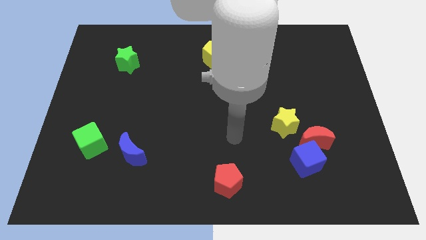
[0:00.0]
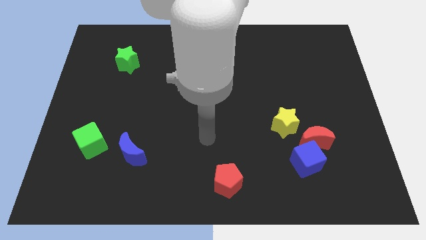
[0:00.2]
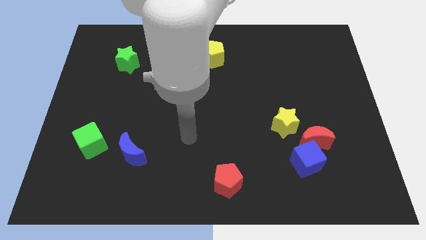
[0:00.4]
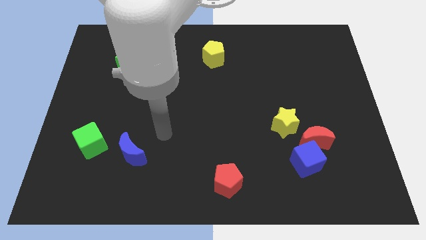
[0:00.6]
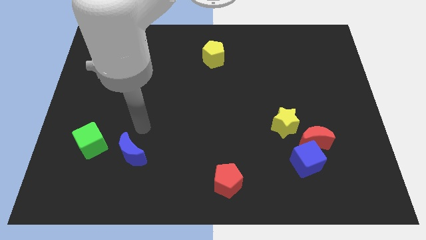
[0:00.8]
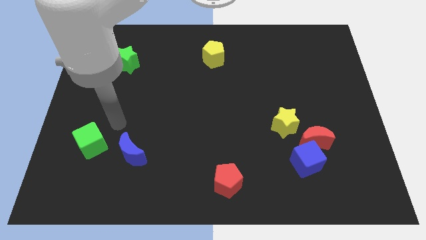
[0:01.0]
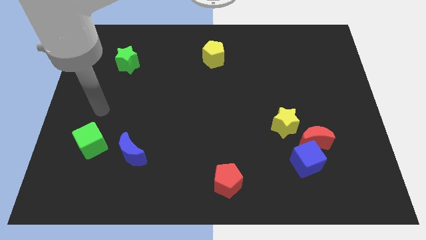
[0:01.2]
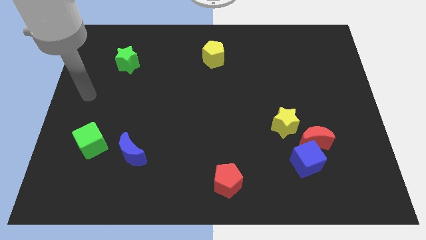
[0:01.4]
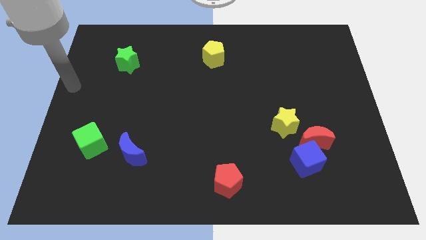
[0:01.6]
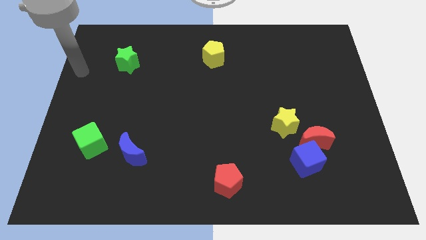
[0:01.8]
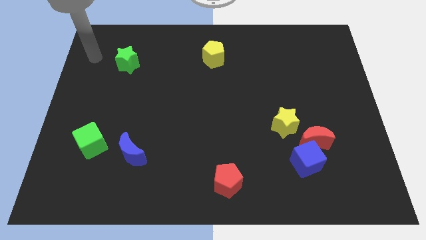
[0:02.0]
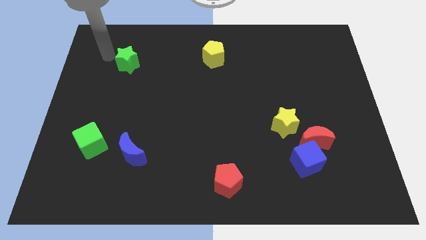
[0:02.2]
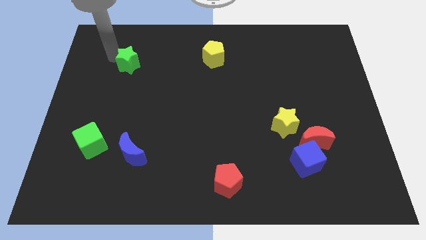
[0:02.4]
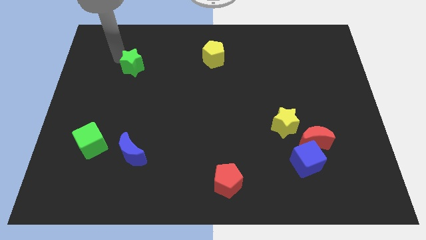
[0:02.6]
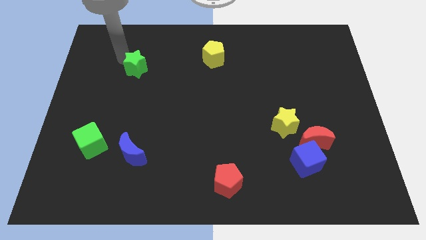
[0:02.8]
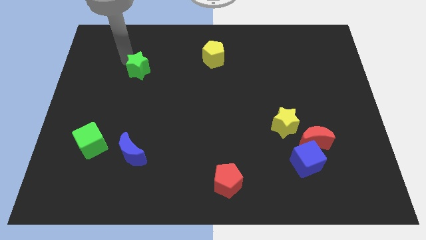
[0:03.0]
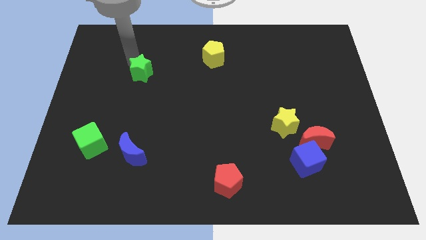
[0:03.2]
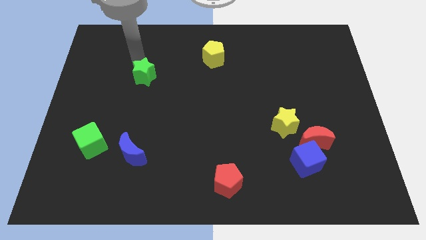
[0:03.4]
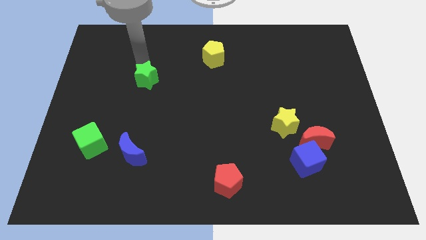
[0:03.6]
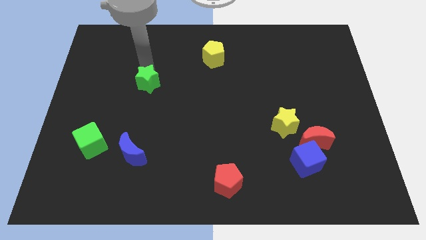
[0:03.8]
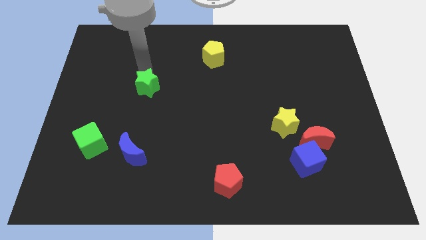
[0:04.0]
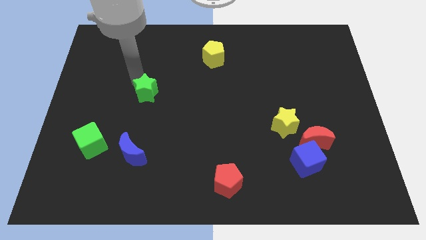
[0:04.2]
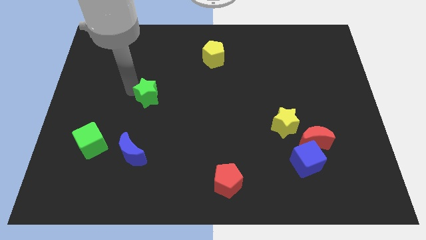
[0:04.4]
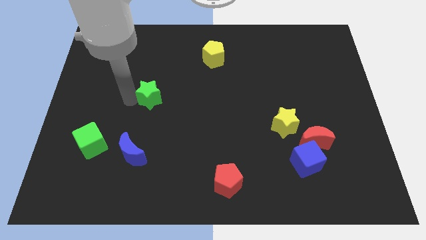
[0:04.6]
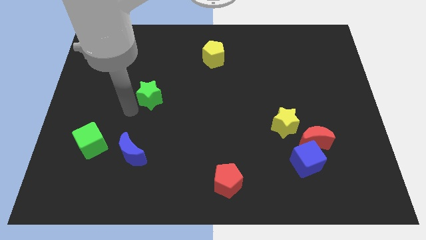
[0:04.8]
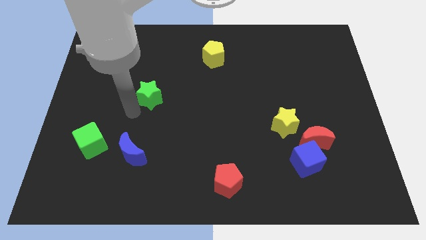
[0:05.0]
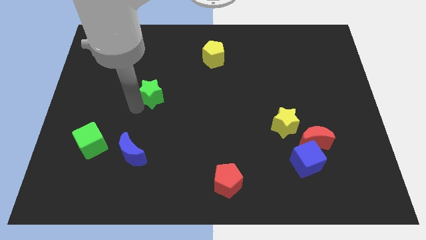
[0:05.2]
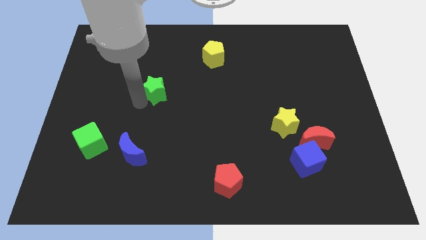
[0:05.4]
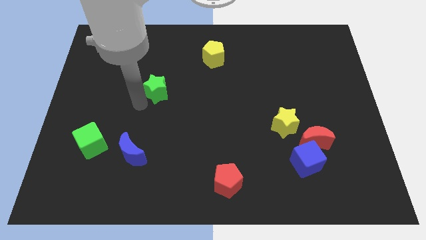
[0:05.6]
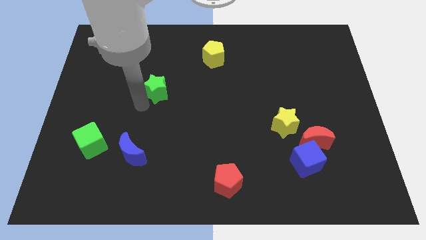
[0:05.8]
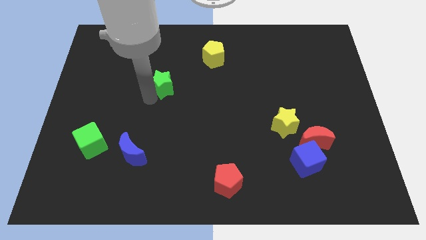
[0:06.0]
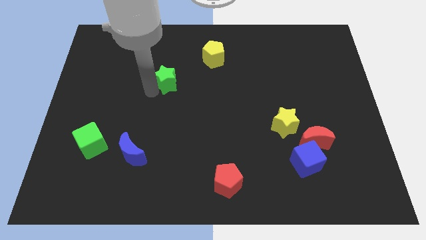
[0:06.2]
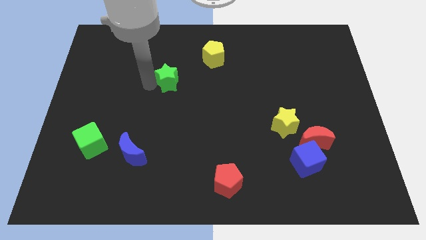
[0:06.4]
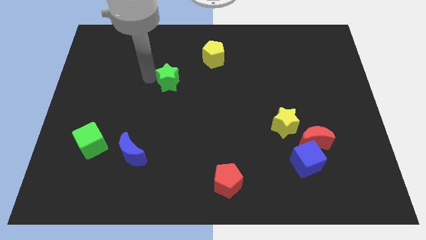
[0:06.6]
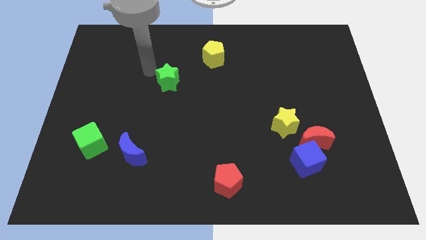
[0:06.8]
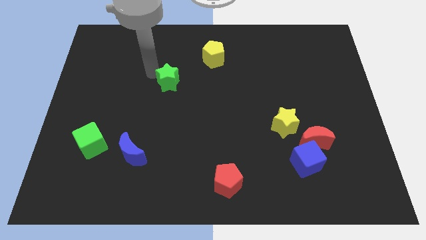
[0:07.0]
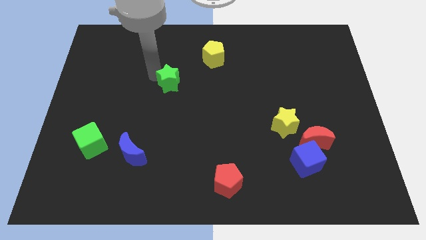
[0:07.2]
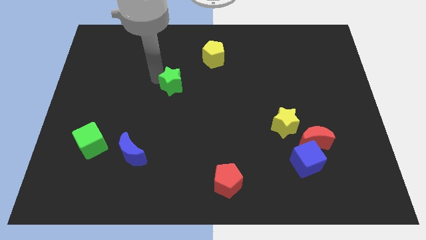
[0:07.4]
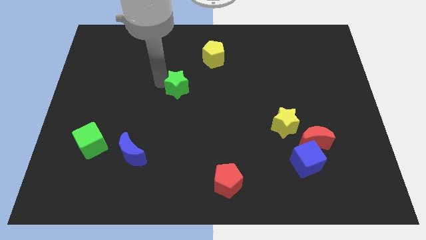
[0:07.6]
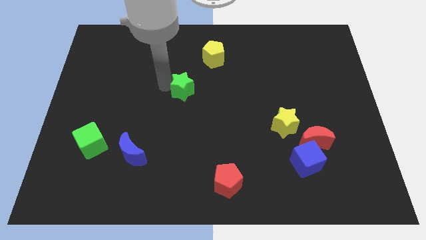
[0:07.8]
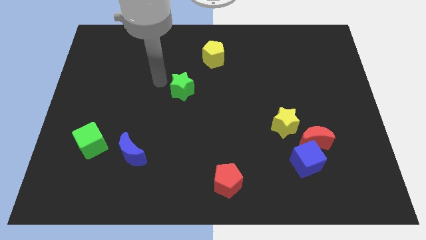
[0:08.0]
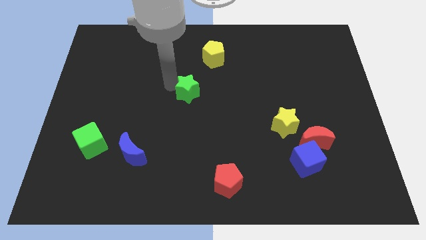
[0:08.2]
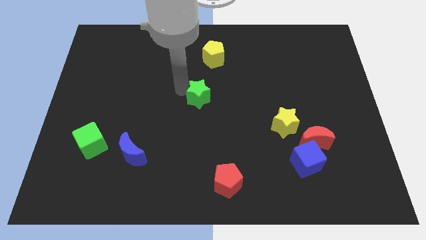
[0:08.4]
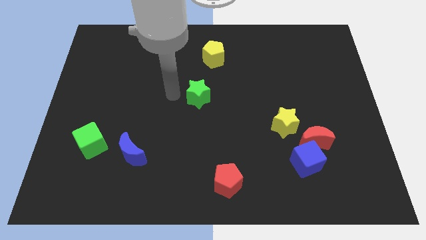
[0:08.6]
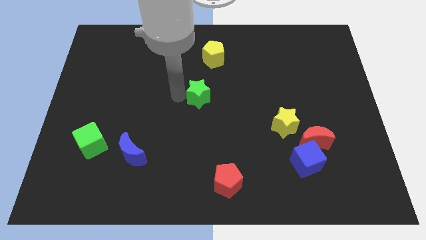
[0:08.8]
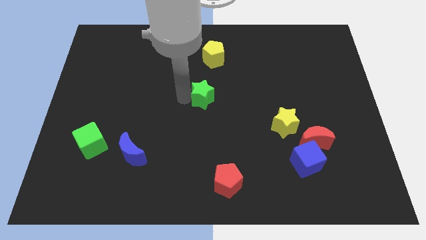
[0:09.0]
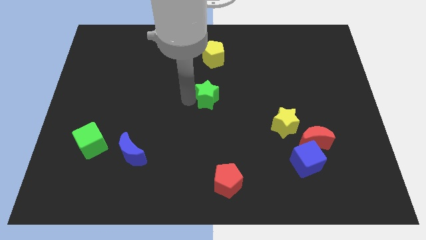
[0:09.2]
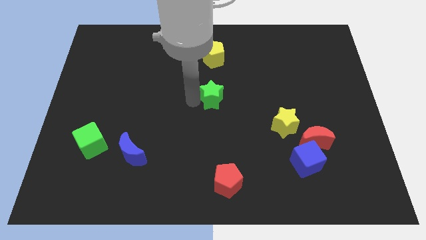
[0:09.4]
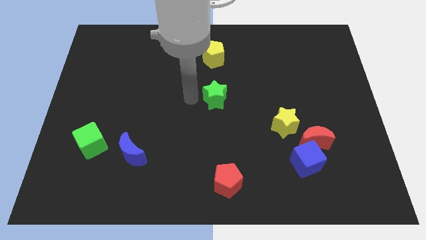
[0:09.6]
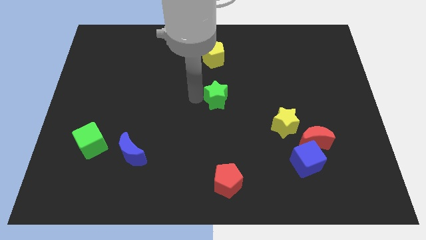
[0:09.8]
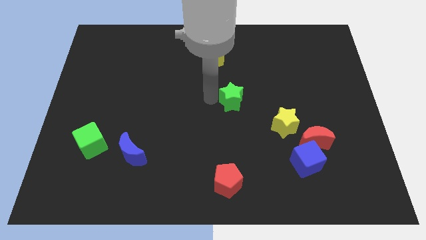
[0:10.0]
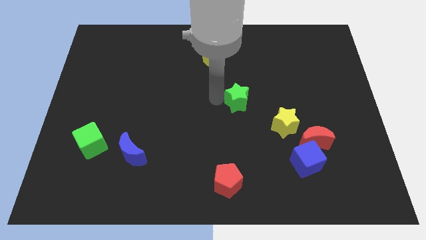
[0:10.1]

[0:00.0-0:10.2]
move the green star to the top left side of the yellow star

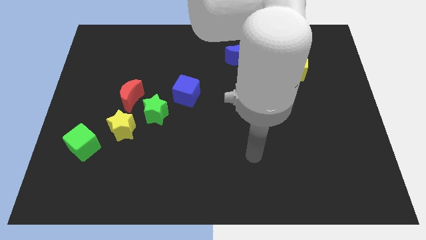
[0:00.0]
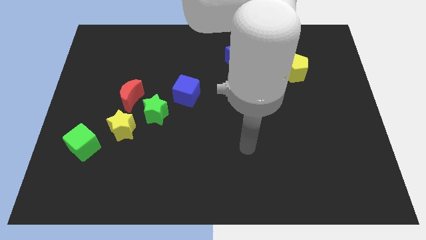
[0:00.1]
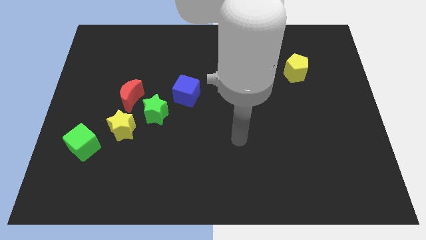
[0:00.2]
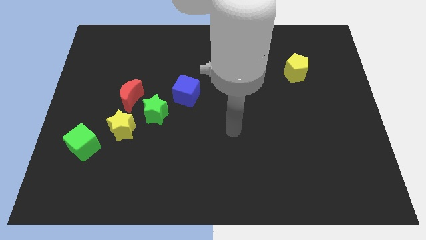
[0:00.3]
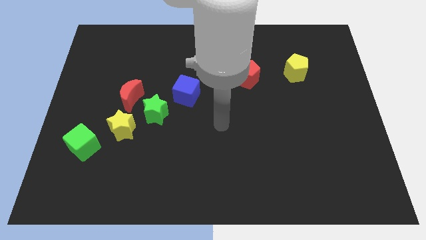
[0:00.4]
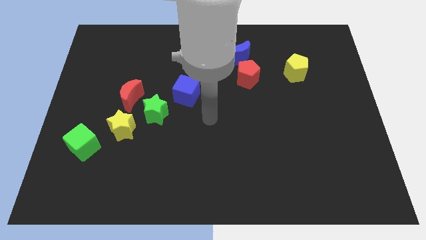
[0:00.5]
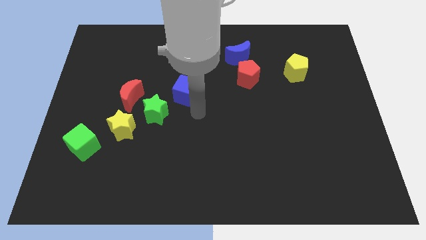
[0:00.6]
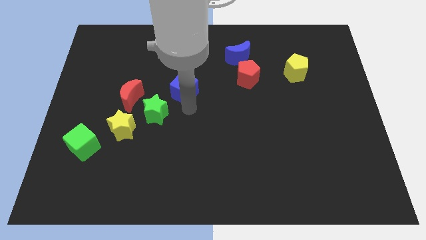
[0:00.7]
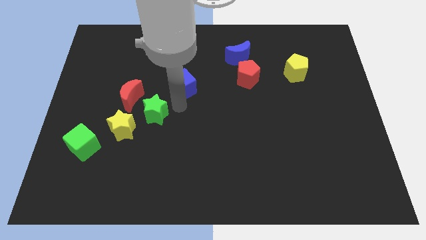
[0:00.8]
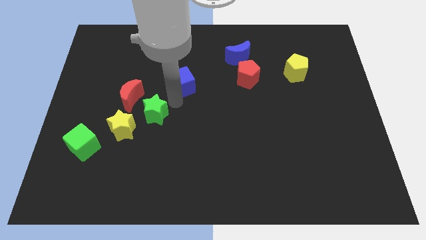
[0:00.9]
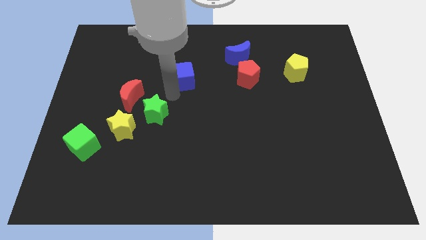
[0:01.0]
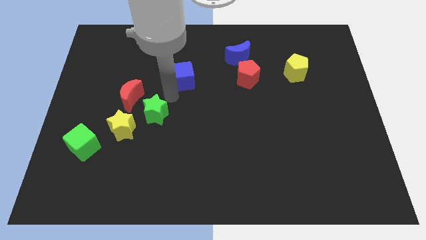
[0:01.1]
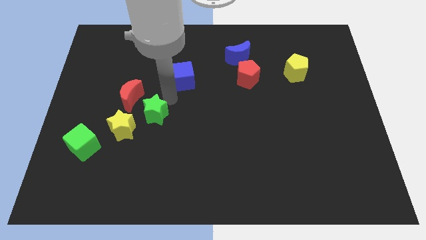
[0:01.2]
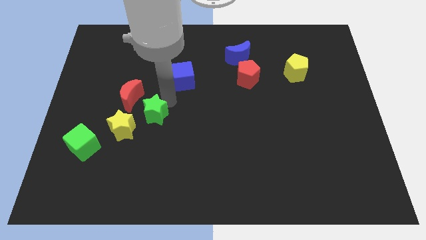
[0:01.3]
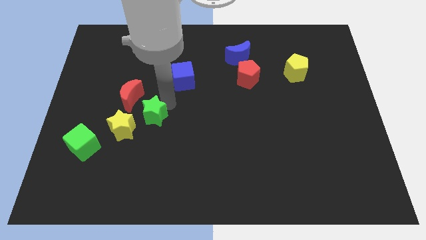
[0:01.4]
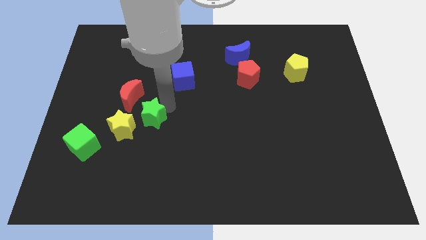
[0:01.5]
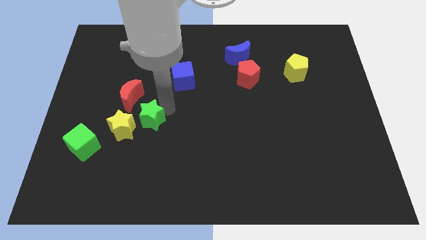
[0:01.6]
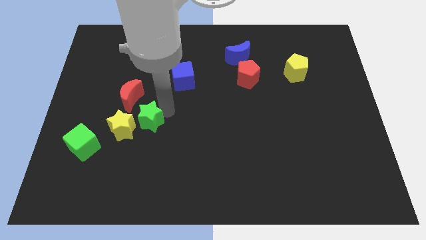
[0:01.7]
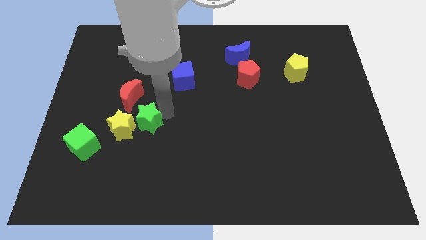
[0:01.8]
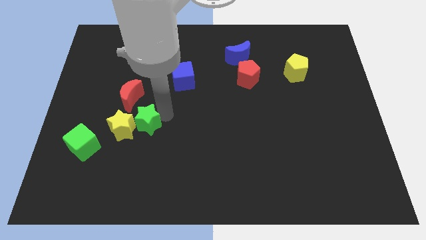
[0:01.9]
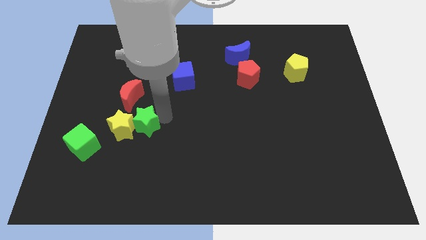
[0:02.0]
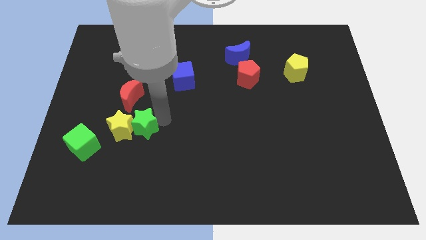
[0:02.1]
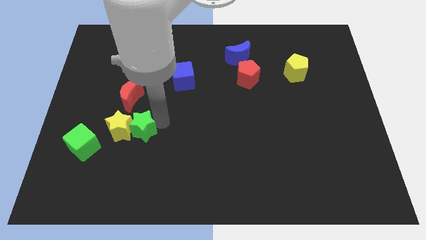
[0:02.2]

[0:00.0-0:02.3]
slide the green star just right of the green cube
